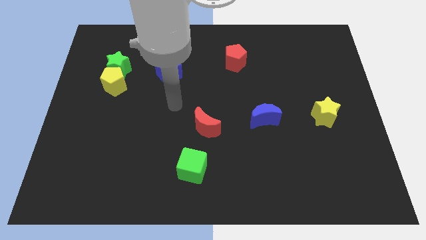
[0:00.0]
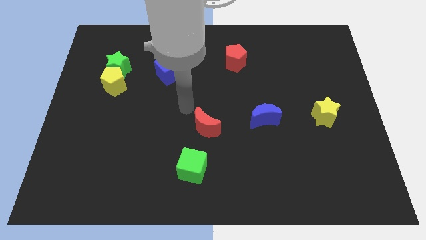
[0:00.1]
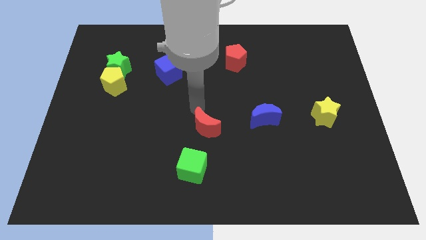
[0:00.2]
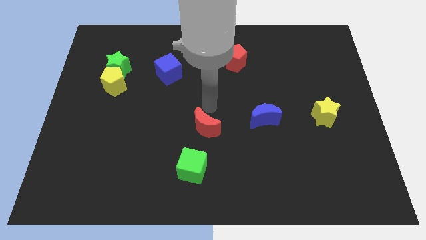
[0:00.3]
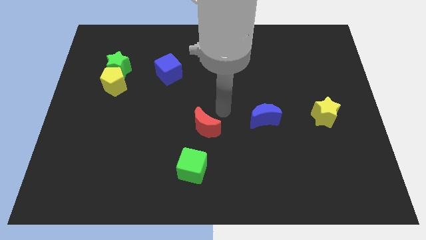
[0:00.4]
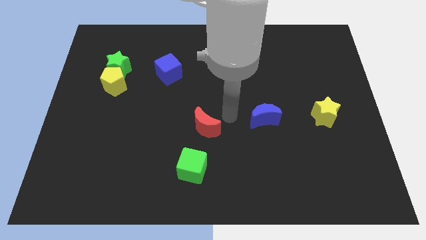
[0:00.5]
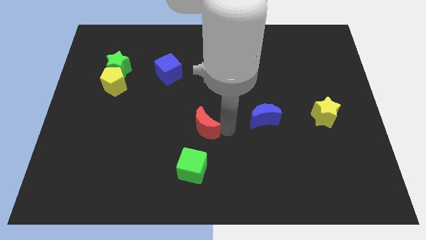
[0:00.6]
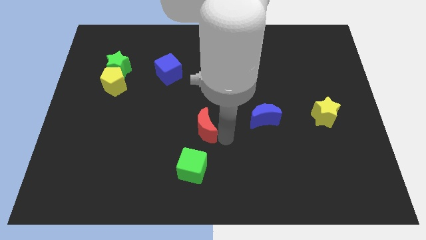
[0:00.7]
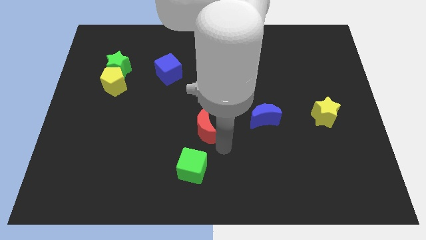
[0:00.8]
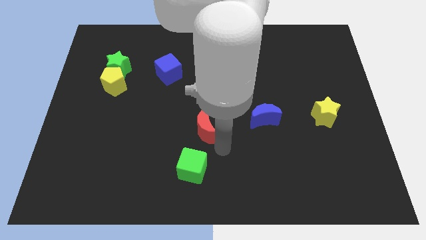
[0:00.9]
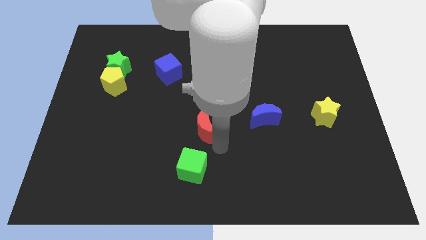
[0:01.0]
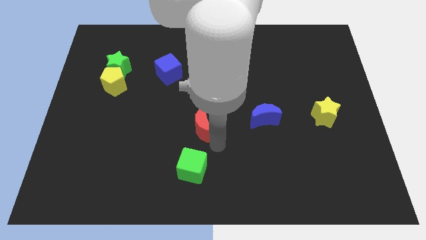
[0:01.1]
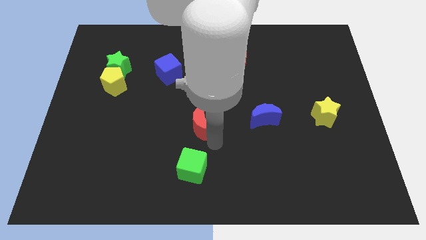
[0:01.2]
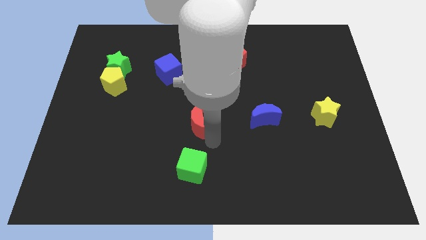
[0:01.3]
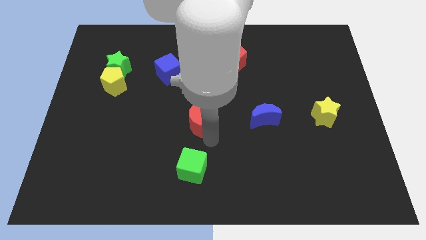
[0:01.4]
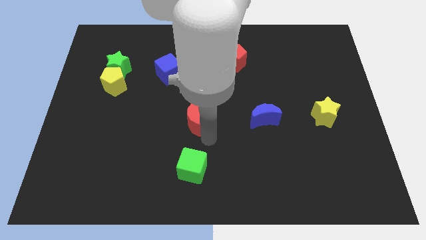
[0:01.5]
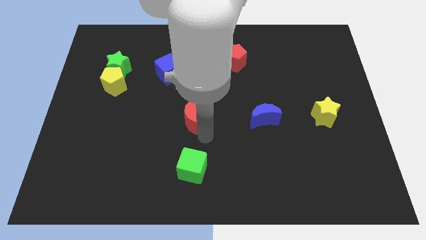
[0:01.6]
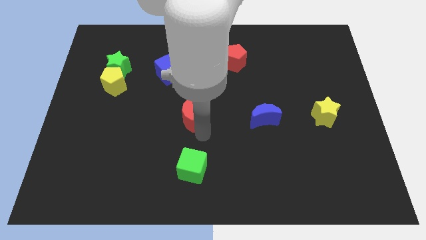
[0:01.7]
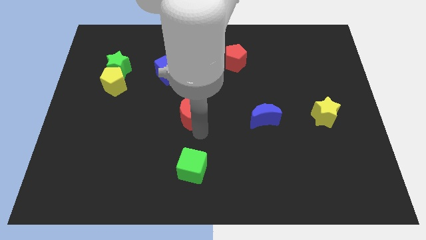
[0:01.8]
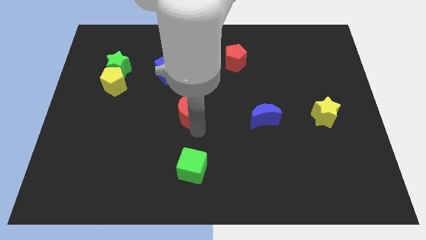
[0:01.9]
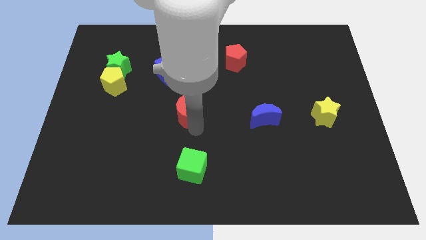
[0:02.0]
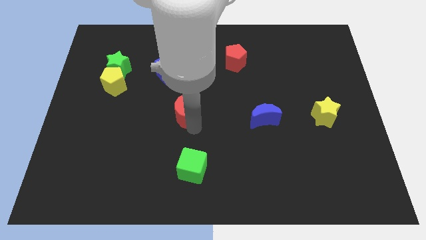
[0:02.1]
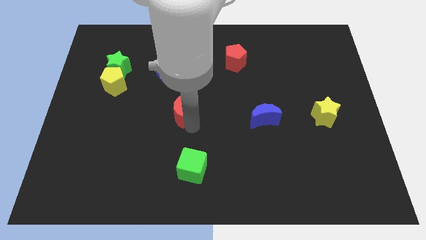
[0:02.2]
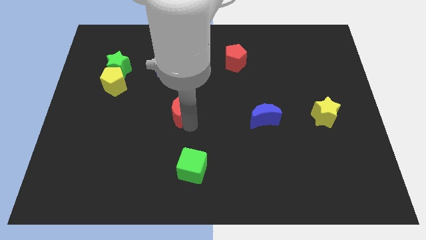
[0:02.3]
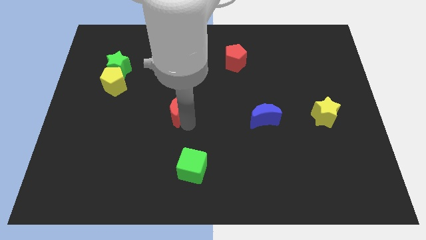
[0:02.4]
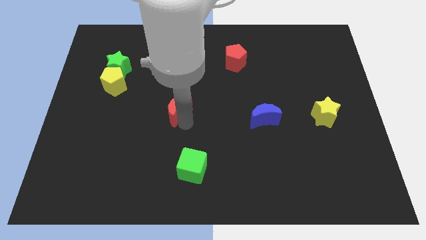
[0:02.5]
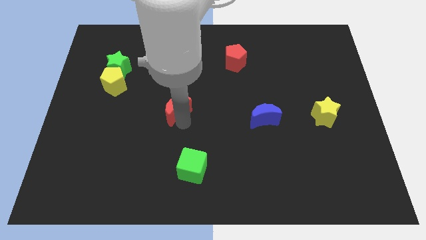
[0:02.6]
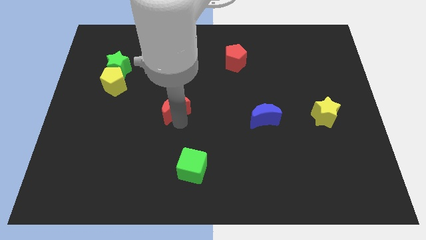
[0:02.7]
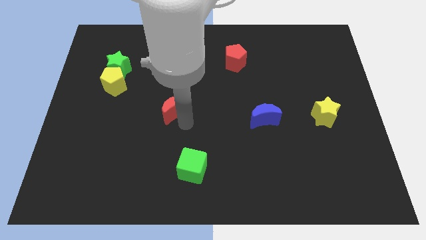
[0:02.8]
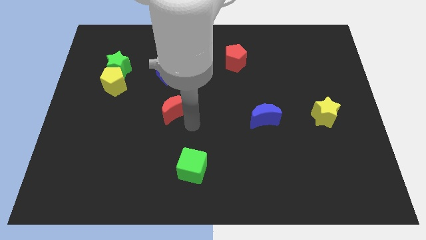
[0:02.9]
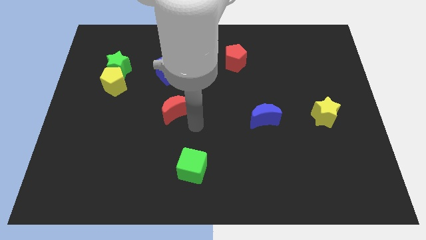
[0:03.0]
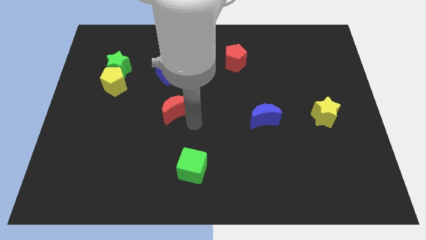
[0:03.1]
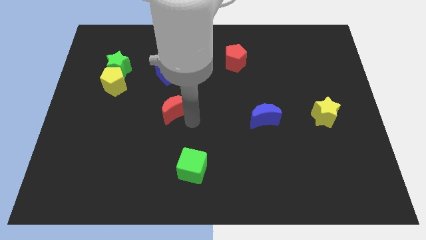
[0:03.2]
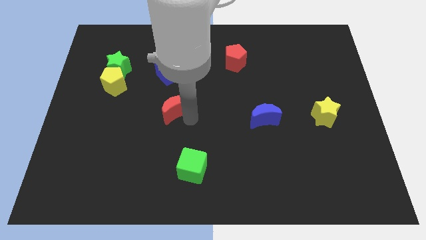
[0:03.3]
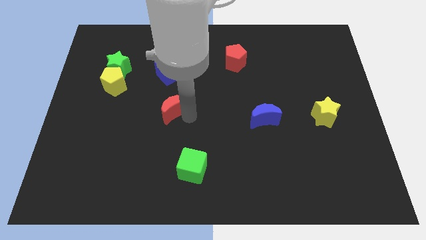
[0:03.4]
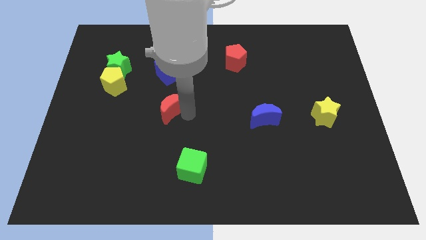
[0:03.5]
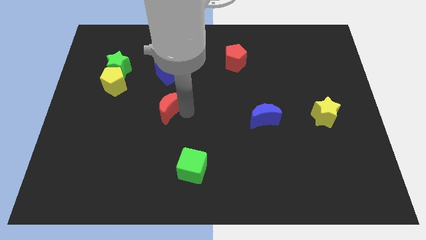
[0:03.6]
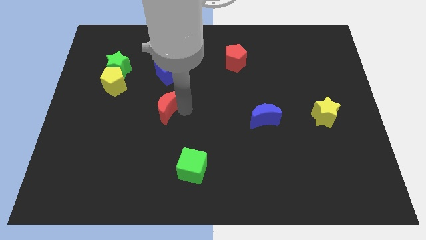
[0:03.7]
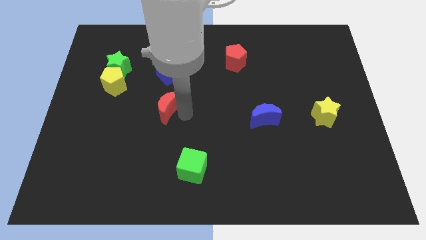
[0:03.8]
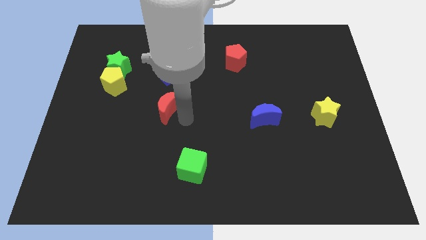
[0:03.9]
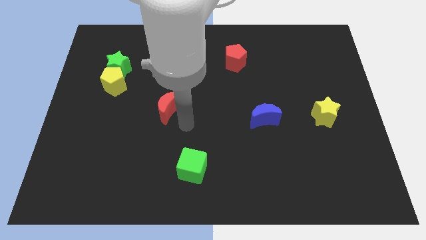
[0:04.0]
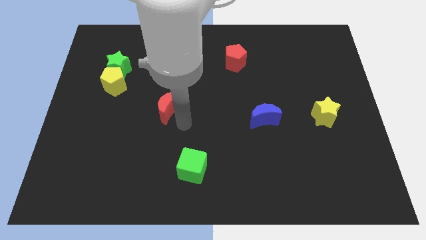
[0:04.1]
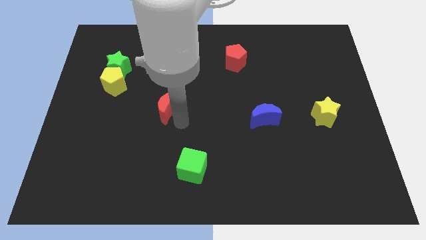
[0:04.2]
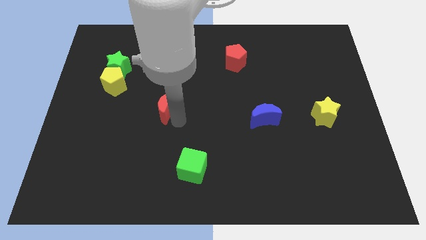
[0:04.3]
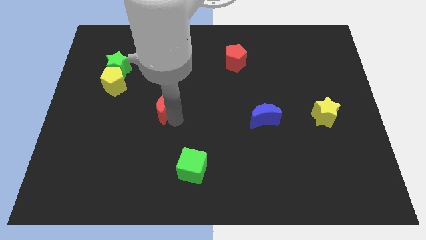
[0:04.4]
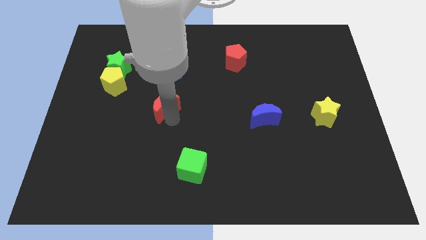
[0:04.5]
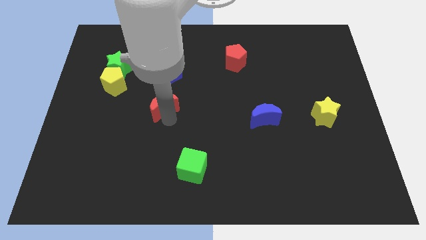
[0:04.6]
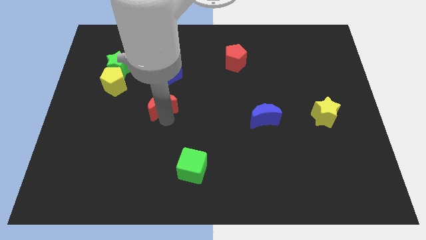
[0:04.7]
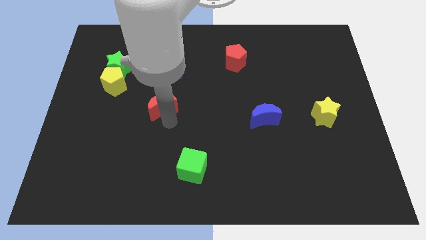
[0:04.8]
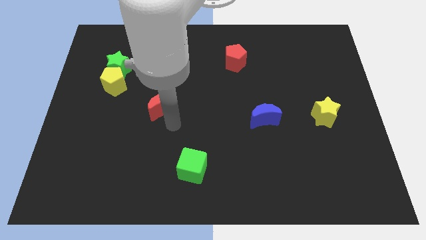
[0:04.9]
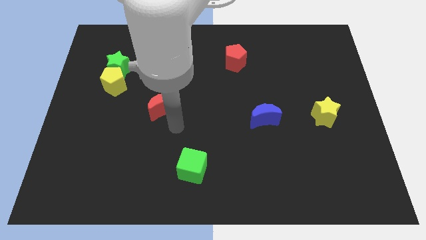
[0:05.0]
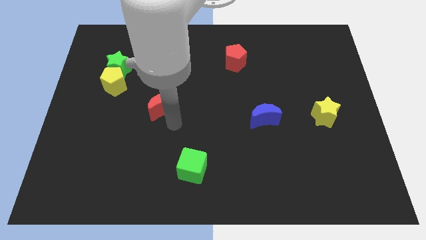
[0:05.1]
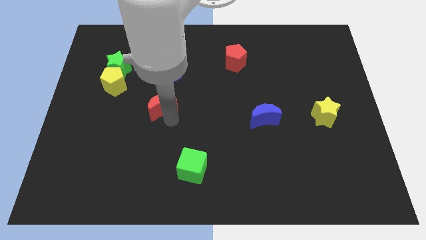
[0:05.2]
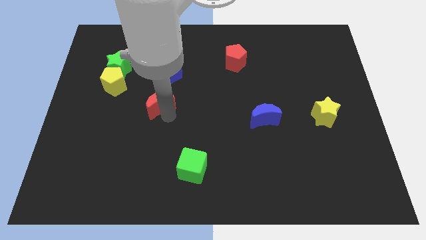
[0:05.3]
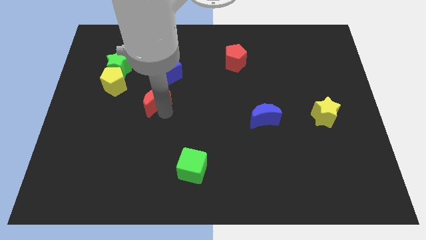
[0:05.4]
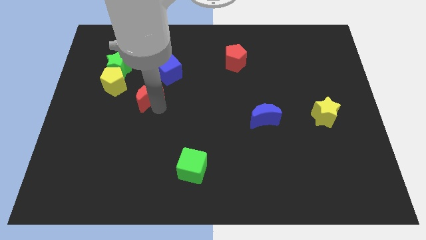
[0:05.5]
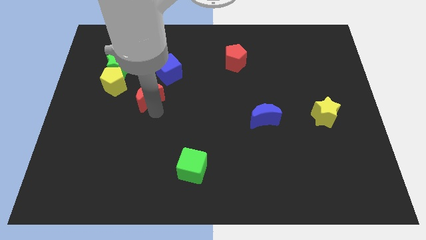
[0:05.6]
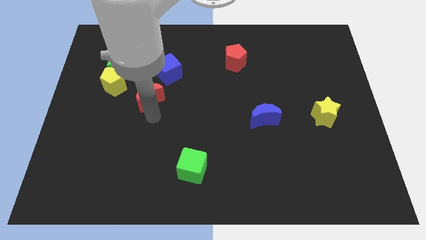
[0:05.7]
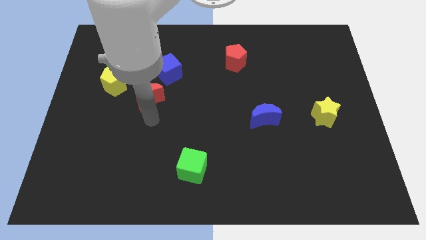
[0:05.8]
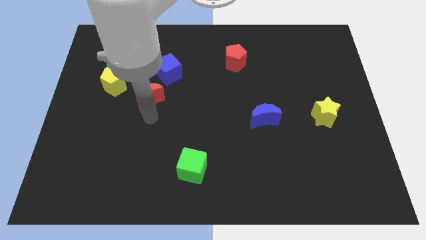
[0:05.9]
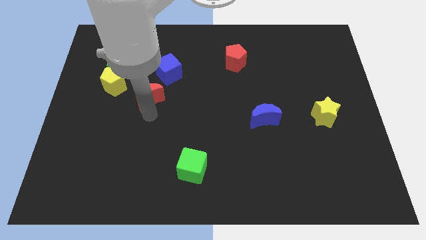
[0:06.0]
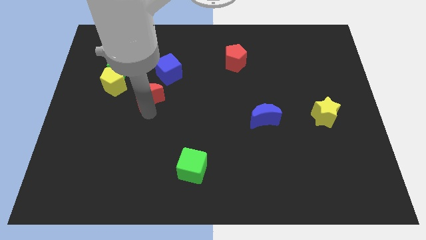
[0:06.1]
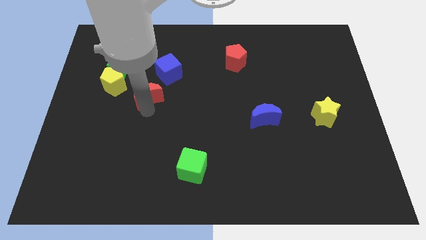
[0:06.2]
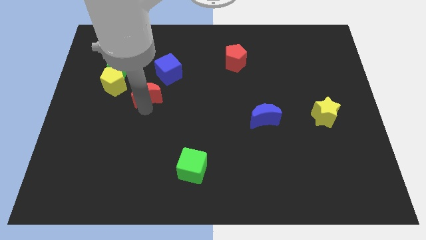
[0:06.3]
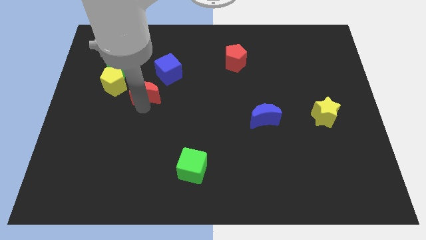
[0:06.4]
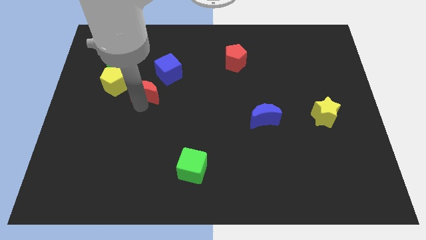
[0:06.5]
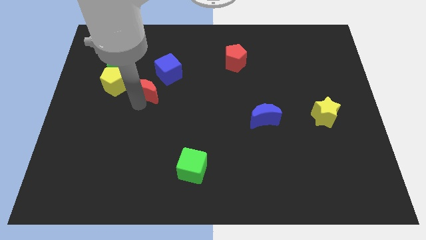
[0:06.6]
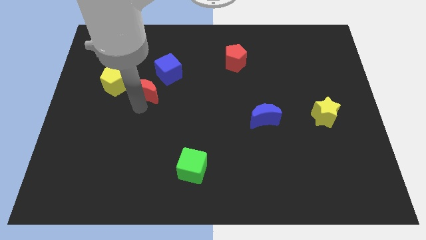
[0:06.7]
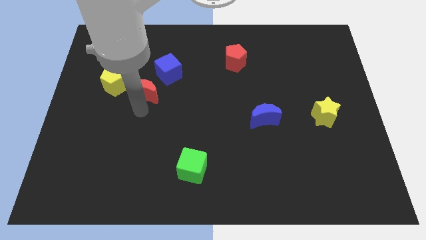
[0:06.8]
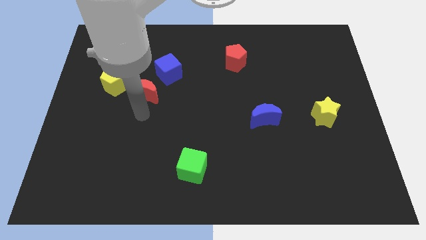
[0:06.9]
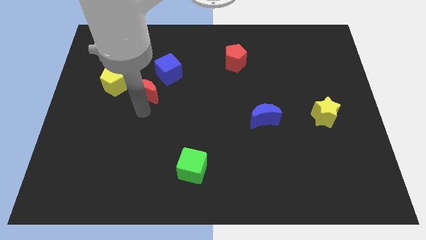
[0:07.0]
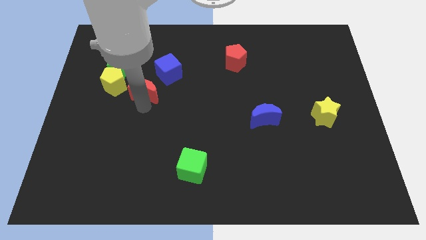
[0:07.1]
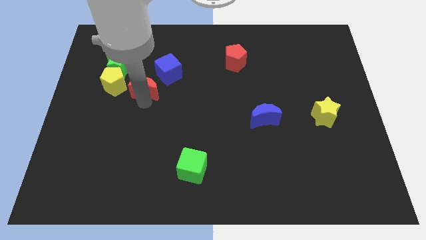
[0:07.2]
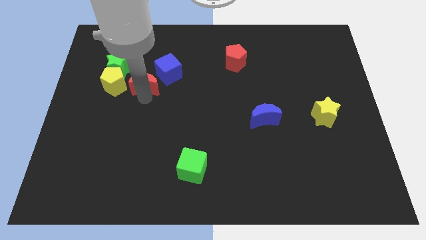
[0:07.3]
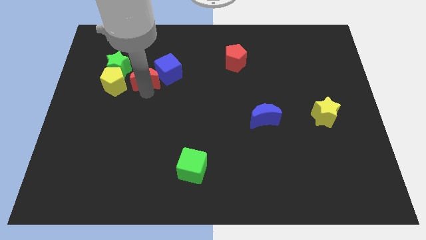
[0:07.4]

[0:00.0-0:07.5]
move the red moon to the top right of the yellow pentagon

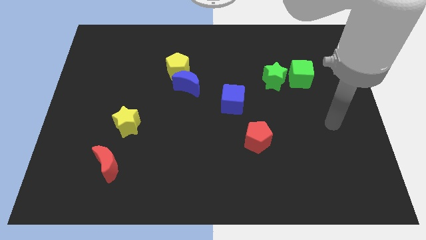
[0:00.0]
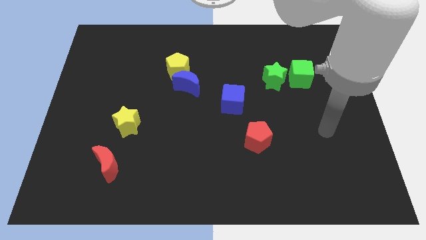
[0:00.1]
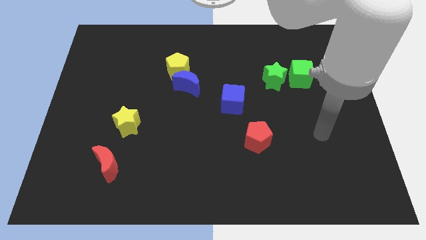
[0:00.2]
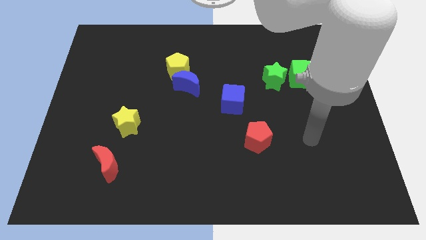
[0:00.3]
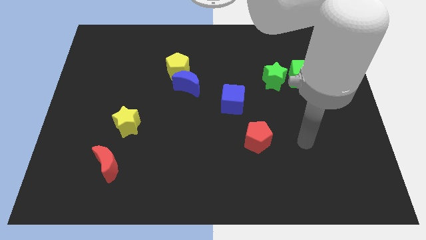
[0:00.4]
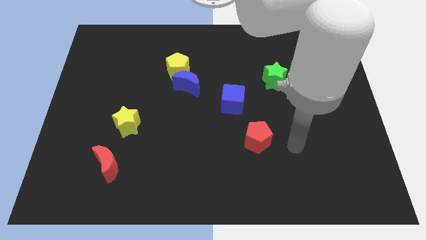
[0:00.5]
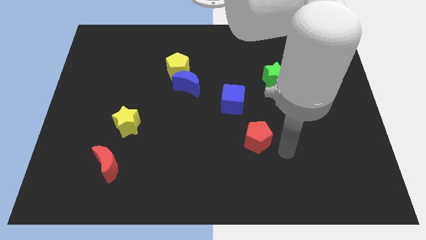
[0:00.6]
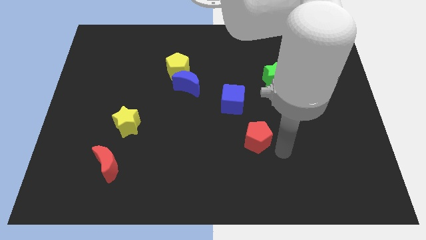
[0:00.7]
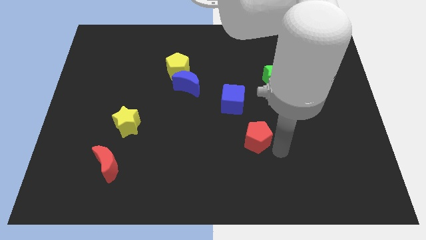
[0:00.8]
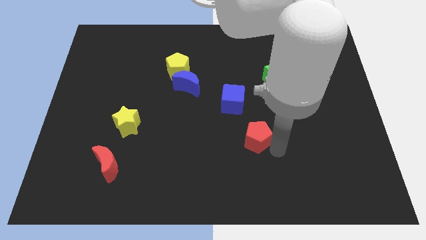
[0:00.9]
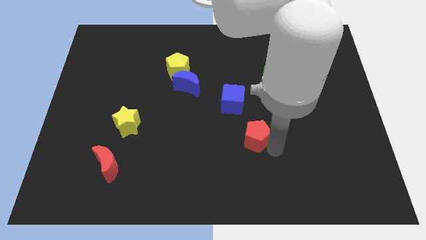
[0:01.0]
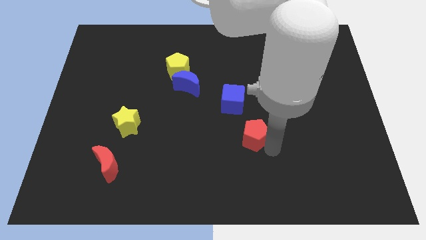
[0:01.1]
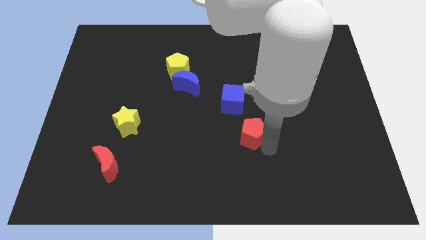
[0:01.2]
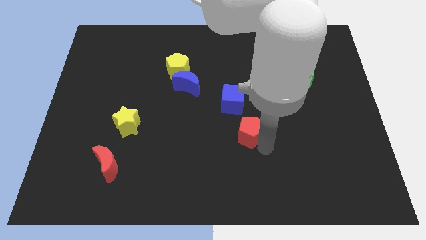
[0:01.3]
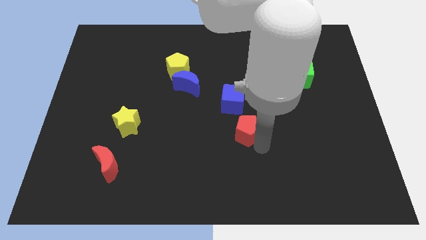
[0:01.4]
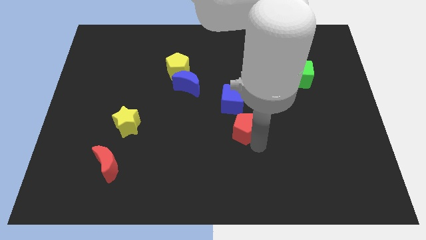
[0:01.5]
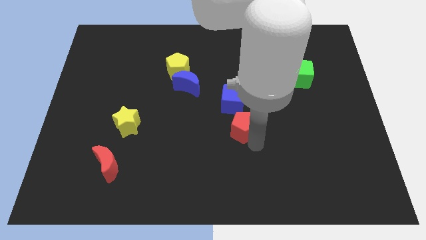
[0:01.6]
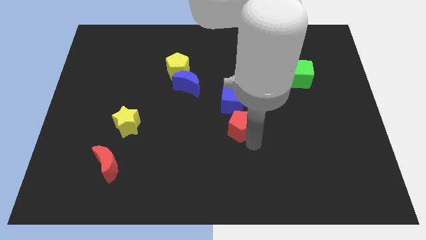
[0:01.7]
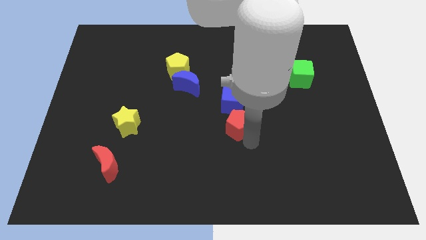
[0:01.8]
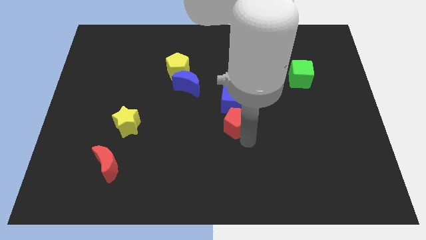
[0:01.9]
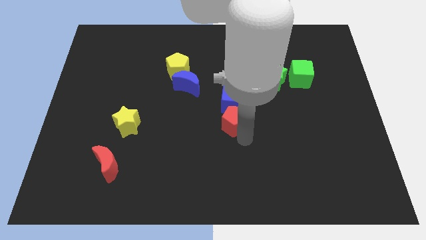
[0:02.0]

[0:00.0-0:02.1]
put the red pentagon to the bottom left of the blue cube
